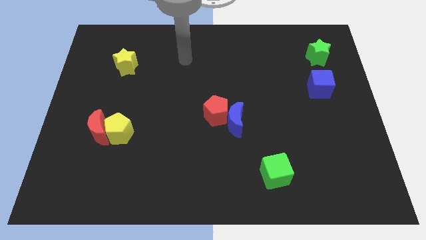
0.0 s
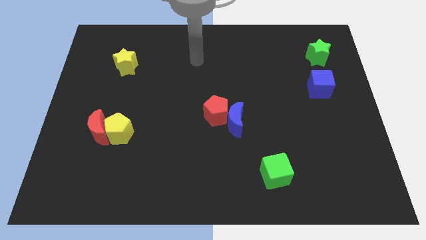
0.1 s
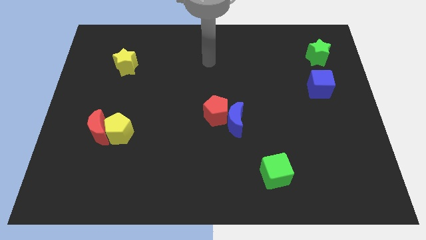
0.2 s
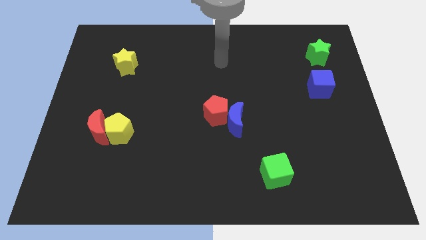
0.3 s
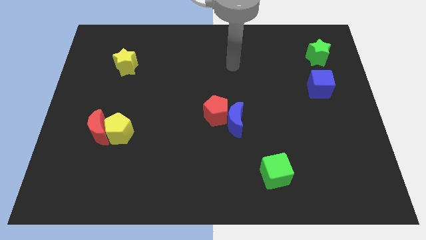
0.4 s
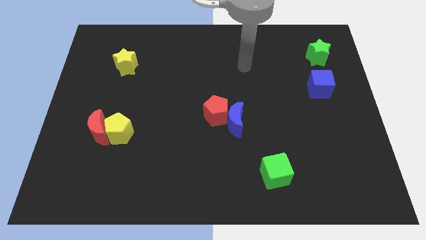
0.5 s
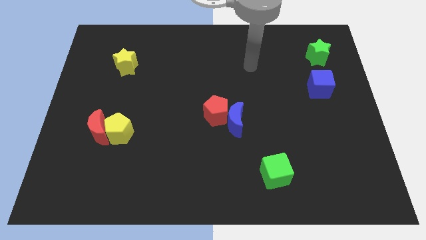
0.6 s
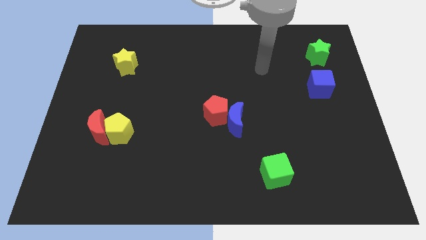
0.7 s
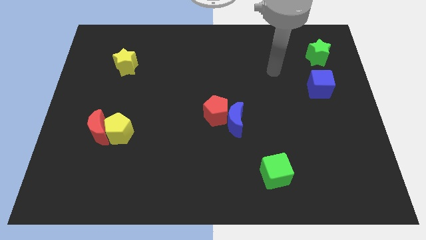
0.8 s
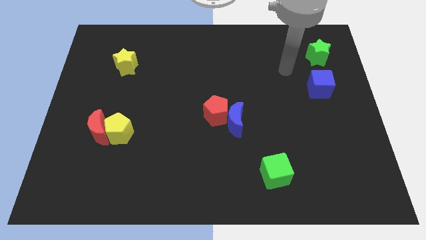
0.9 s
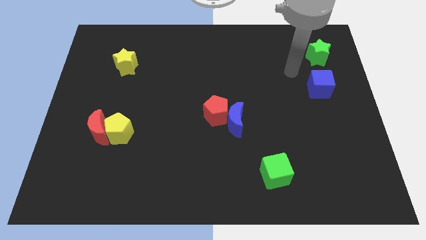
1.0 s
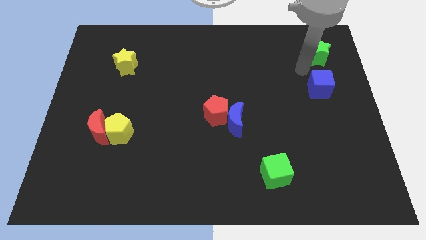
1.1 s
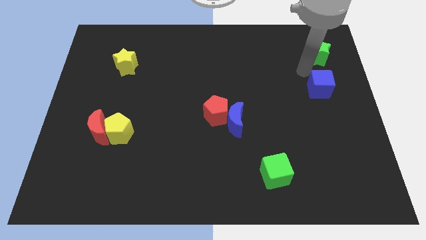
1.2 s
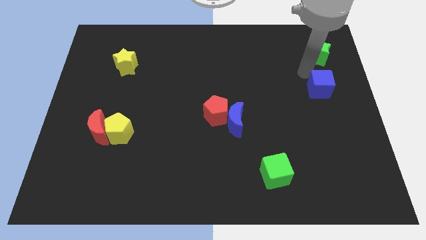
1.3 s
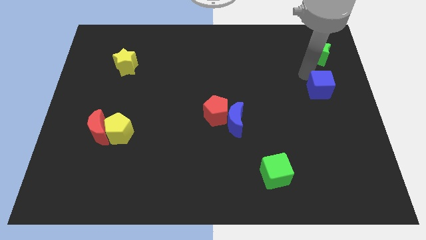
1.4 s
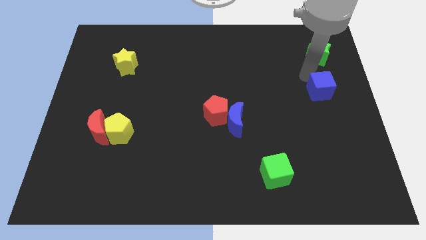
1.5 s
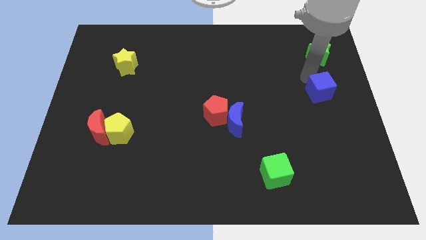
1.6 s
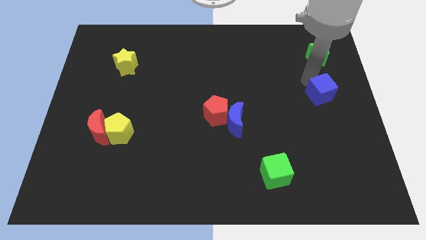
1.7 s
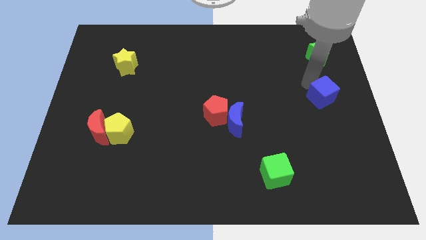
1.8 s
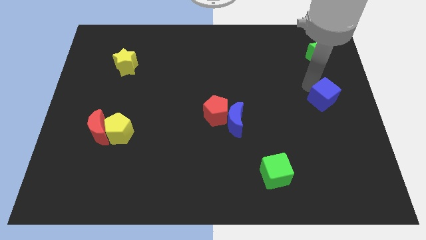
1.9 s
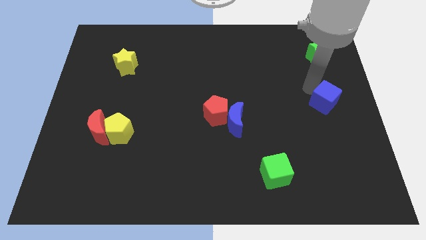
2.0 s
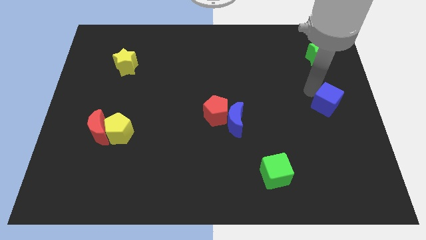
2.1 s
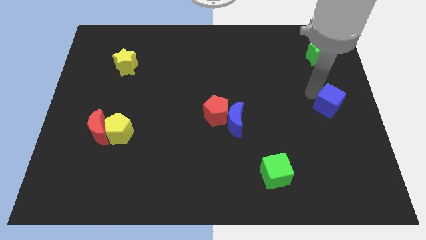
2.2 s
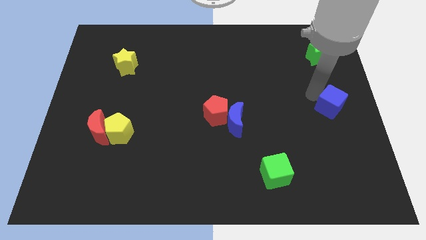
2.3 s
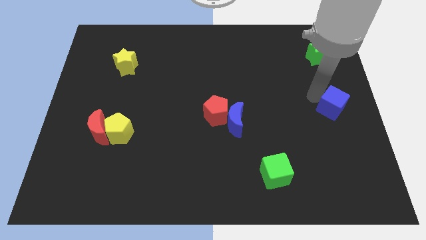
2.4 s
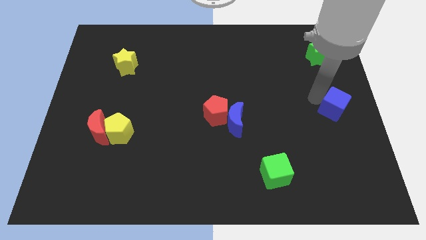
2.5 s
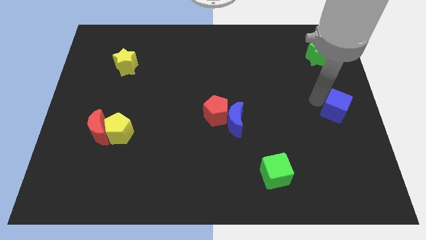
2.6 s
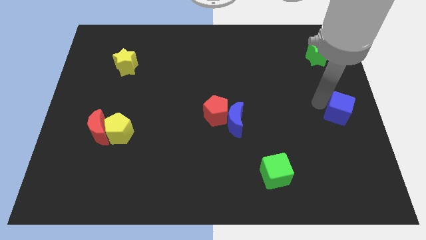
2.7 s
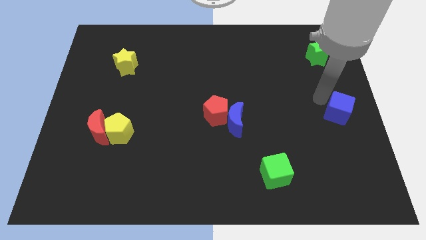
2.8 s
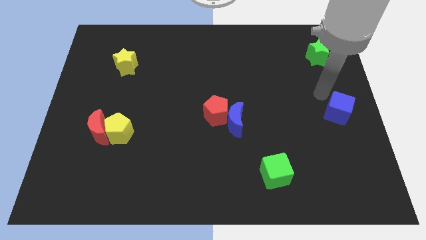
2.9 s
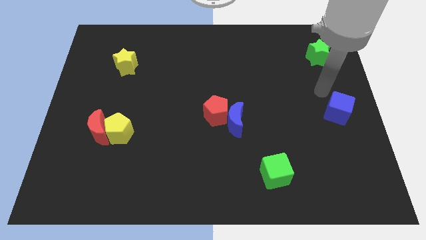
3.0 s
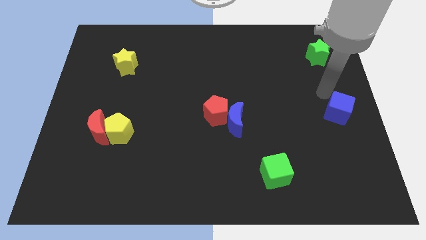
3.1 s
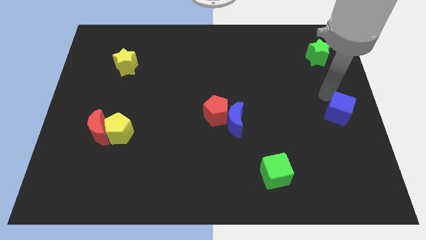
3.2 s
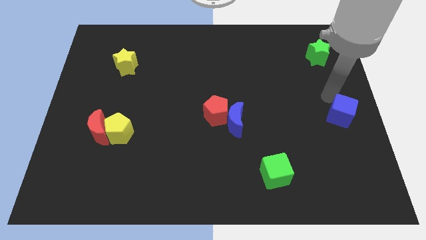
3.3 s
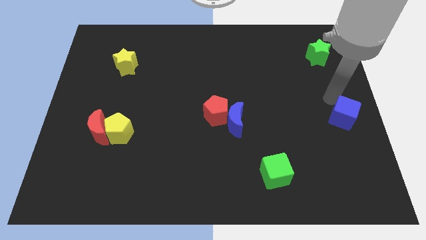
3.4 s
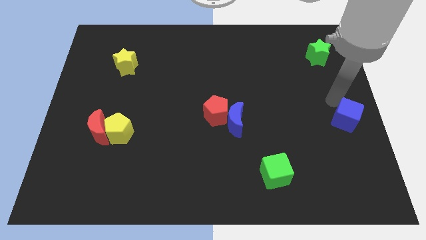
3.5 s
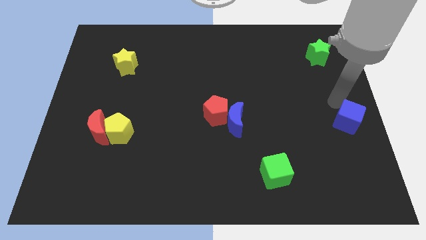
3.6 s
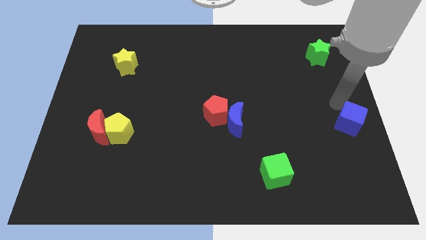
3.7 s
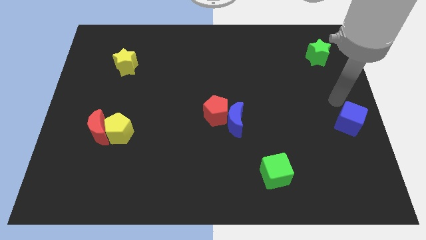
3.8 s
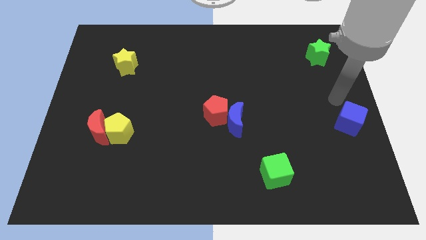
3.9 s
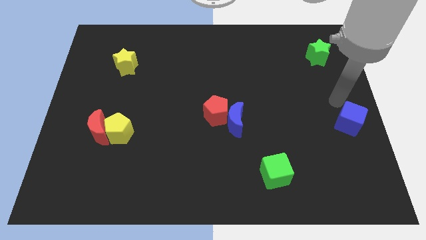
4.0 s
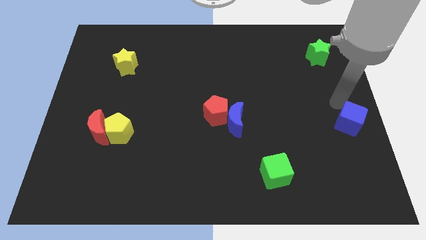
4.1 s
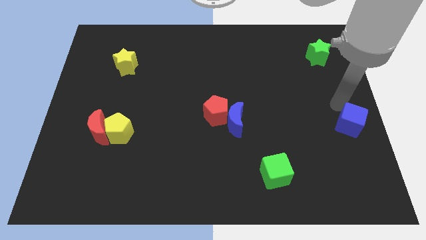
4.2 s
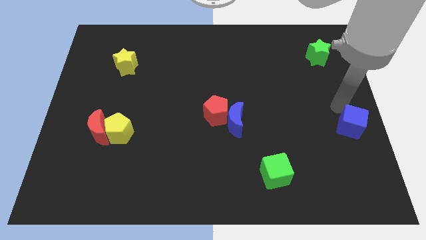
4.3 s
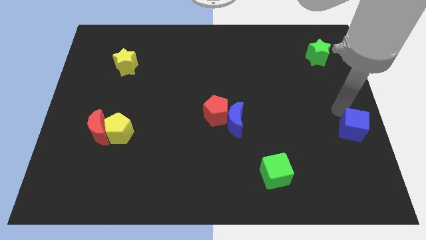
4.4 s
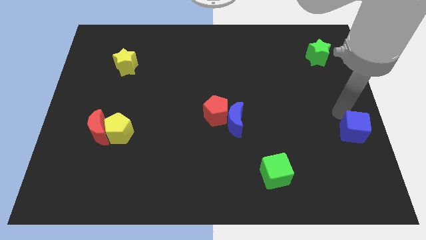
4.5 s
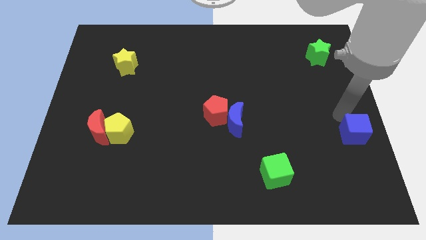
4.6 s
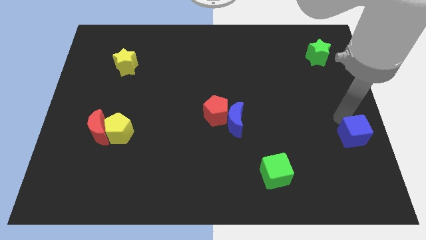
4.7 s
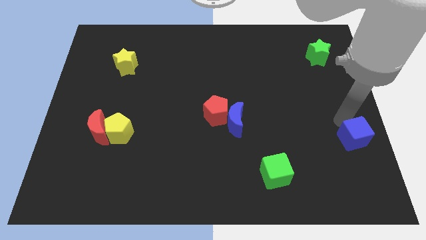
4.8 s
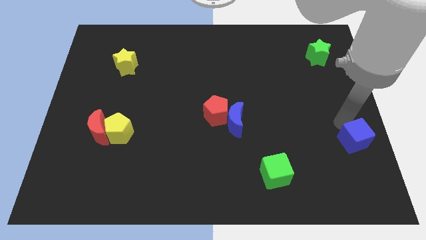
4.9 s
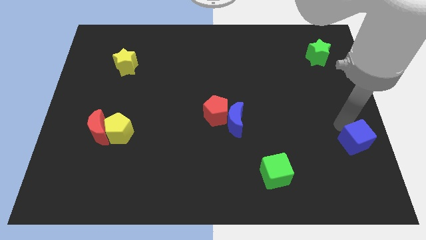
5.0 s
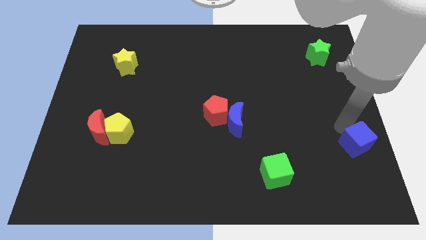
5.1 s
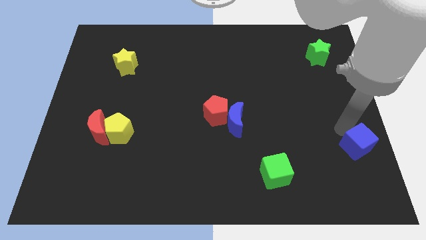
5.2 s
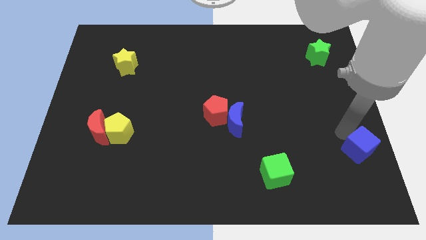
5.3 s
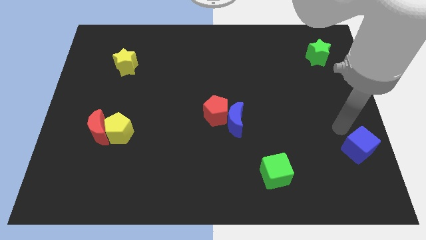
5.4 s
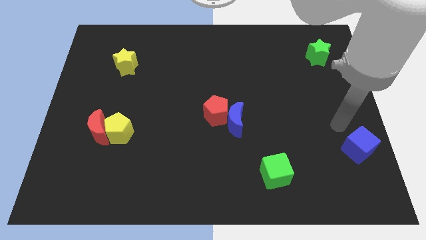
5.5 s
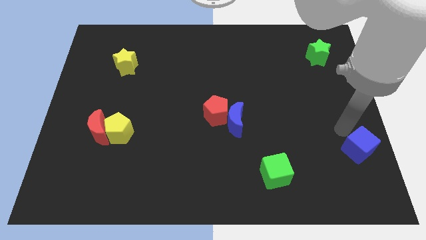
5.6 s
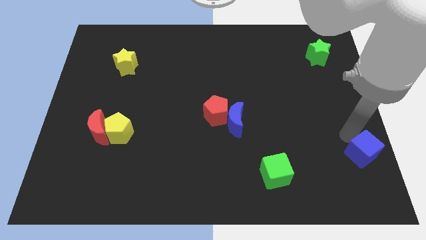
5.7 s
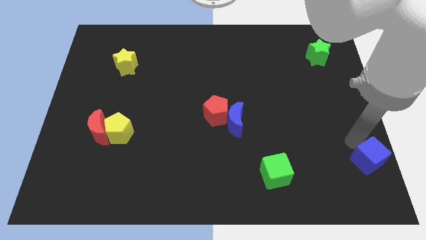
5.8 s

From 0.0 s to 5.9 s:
slide the blue cube to the bottom right of the board
